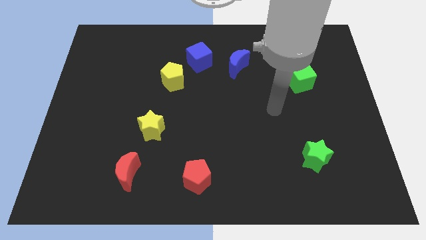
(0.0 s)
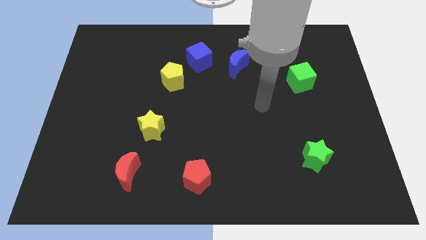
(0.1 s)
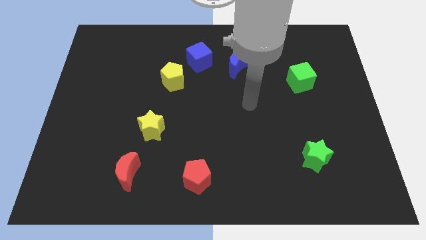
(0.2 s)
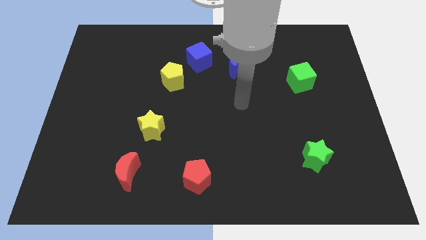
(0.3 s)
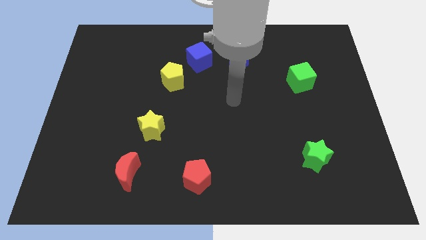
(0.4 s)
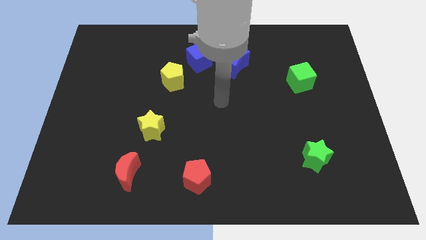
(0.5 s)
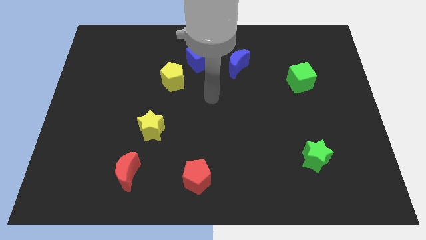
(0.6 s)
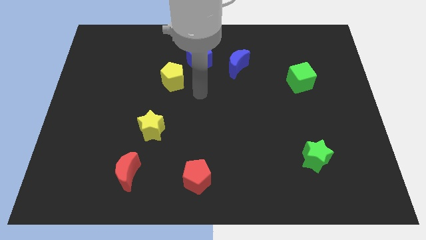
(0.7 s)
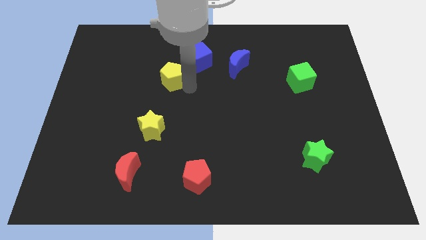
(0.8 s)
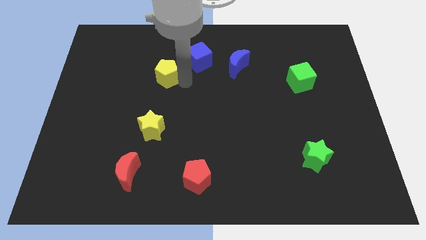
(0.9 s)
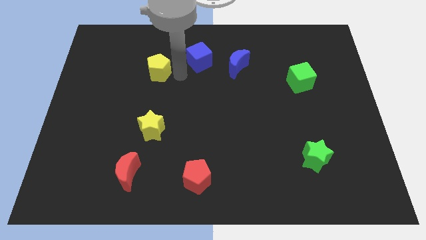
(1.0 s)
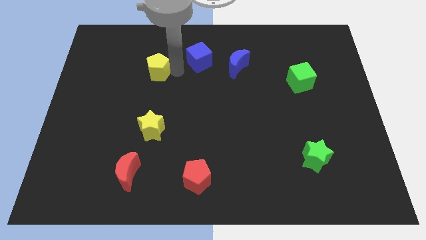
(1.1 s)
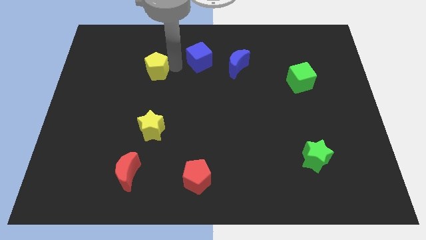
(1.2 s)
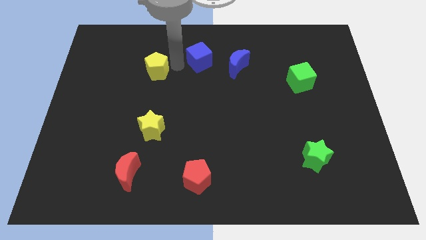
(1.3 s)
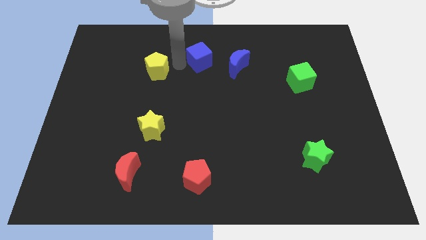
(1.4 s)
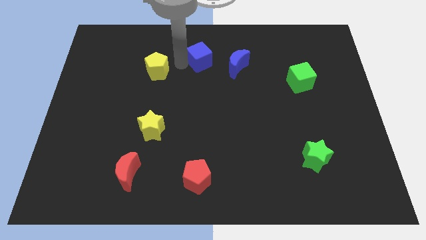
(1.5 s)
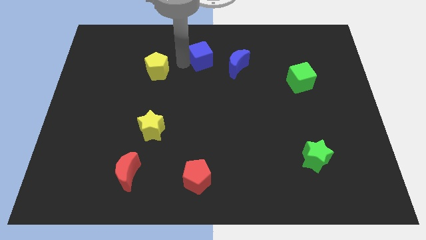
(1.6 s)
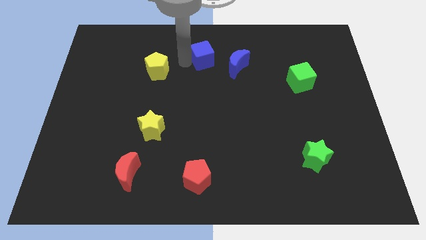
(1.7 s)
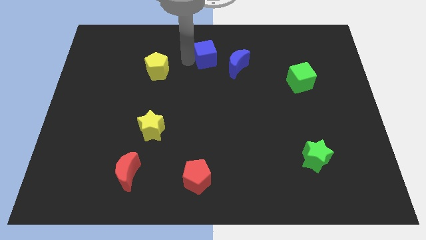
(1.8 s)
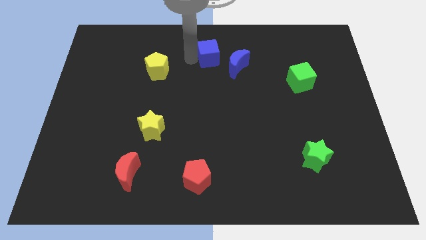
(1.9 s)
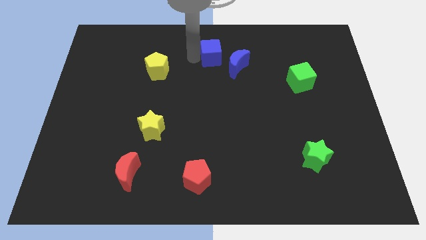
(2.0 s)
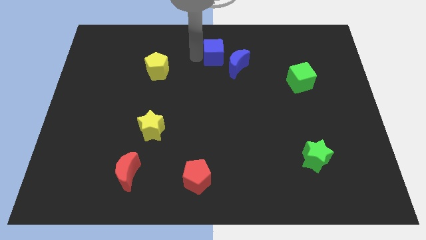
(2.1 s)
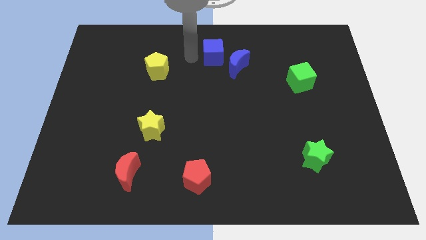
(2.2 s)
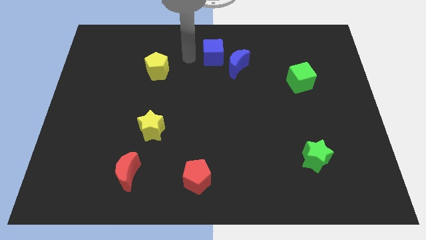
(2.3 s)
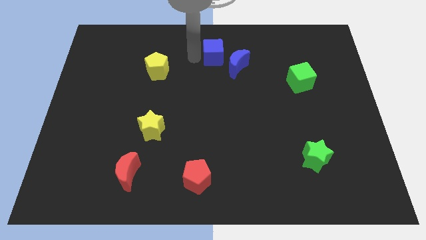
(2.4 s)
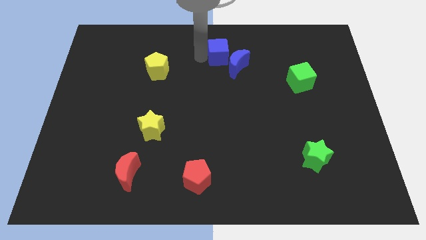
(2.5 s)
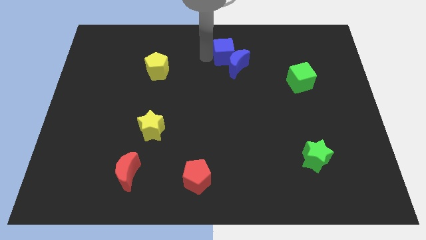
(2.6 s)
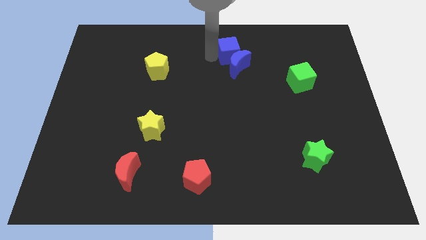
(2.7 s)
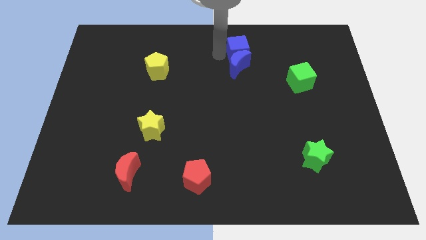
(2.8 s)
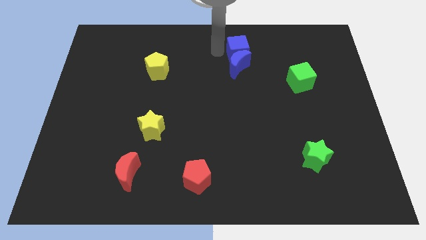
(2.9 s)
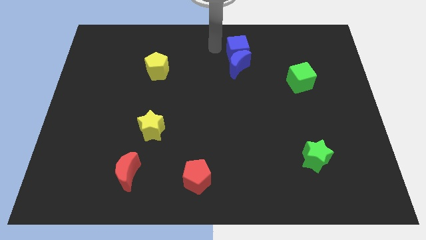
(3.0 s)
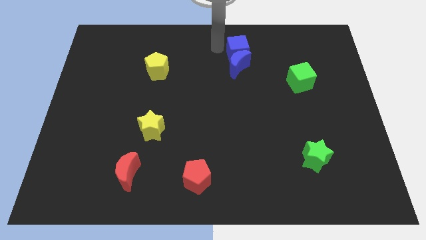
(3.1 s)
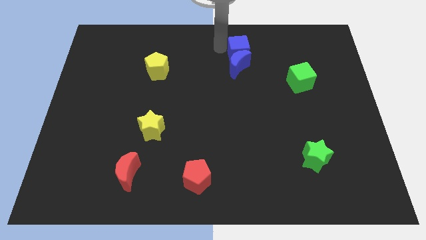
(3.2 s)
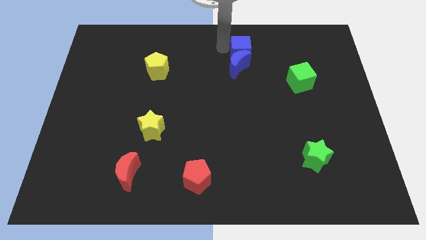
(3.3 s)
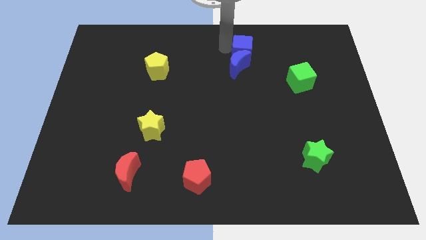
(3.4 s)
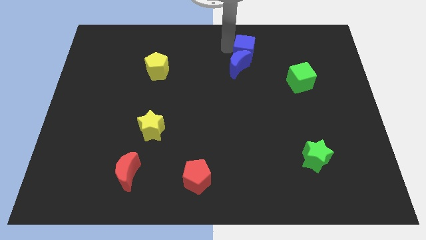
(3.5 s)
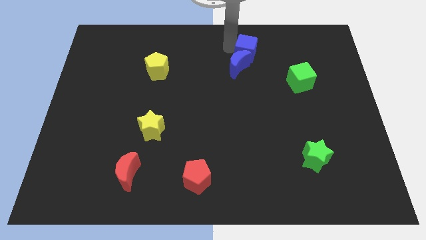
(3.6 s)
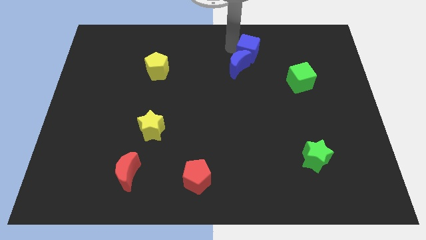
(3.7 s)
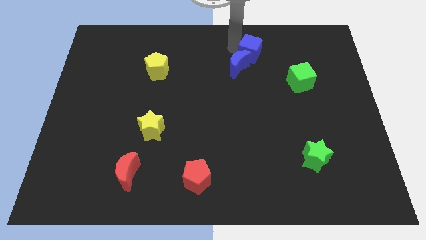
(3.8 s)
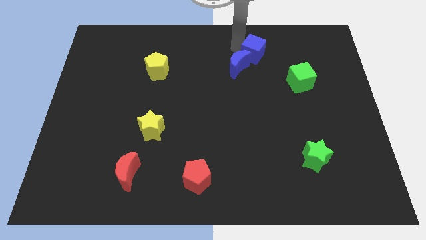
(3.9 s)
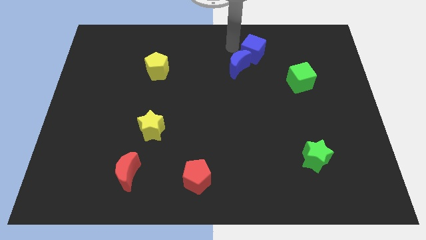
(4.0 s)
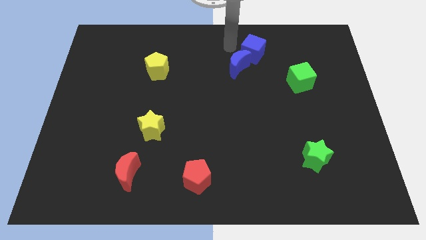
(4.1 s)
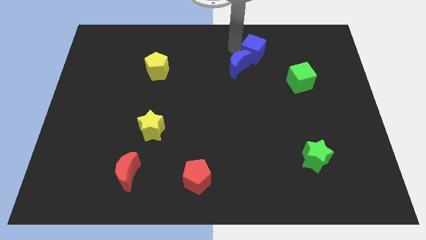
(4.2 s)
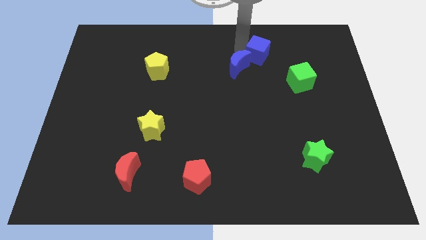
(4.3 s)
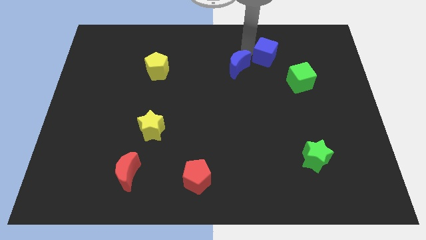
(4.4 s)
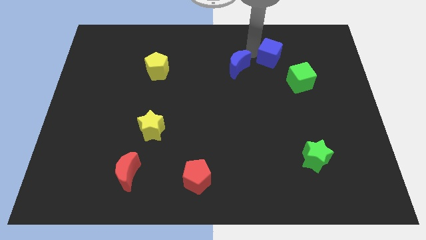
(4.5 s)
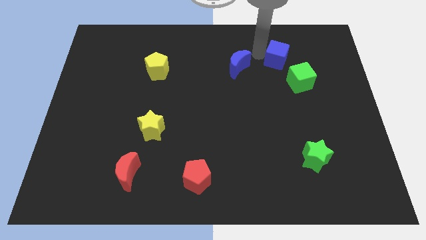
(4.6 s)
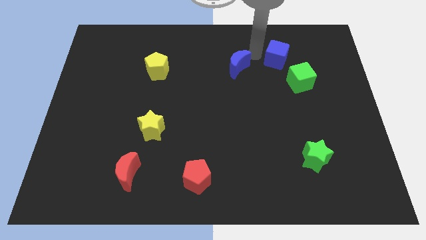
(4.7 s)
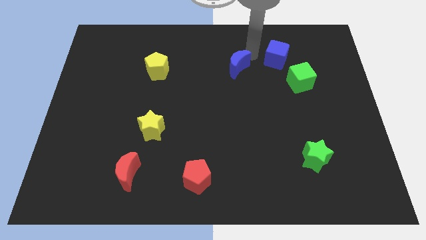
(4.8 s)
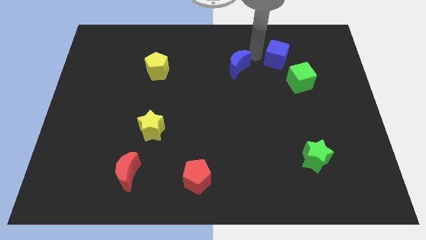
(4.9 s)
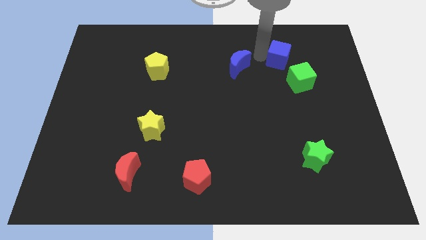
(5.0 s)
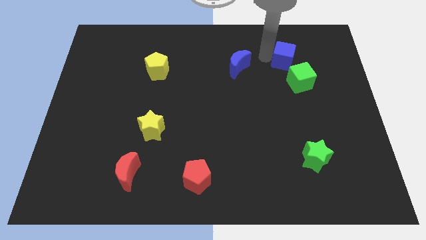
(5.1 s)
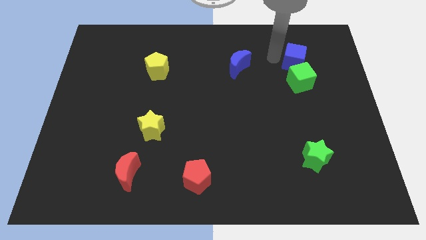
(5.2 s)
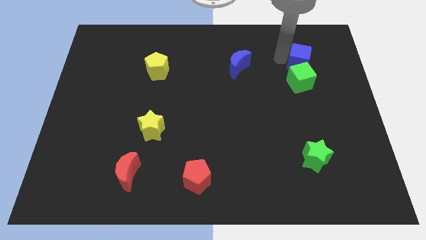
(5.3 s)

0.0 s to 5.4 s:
push the blue cube to the top right of the green cube

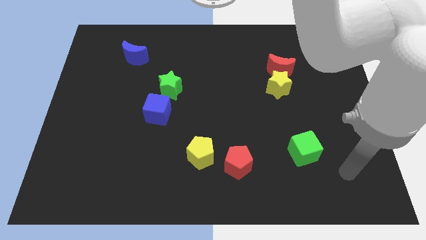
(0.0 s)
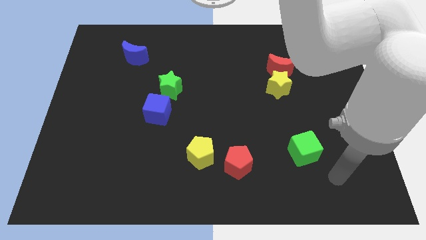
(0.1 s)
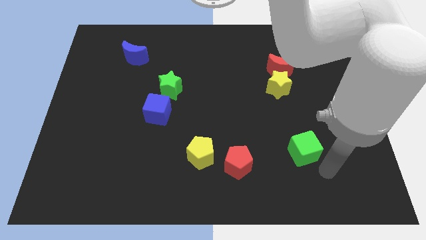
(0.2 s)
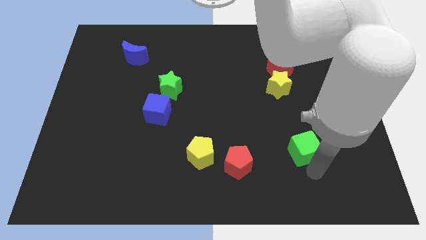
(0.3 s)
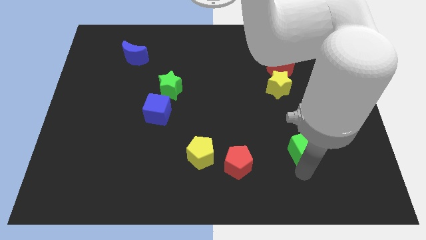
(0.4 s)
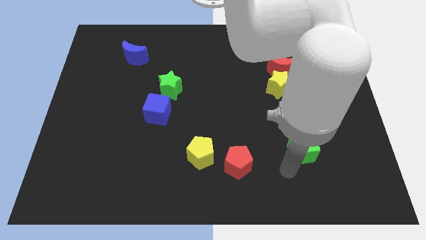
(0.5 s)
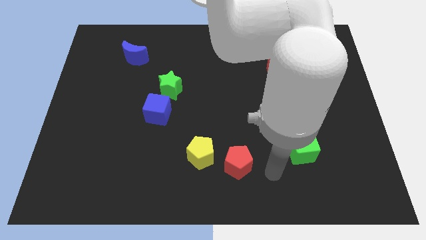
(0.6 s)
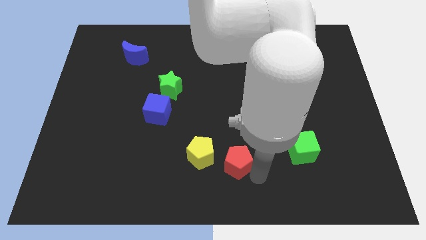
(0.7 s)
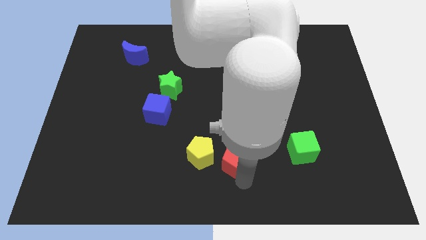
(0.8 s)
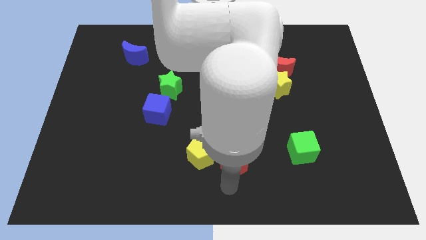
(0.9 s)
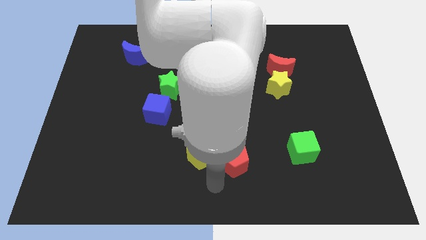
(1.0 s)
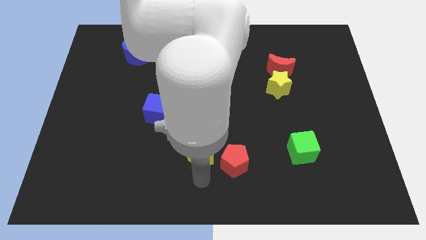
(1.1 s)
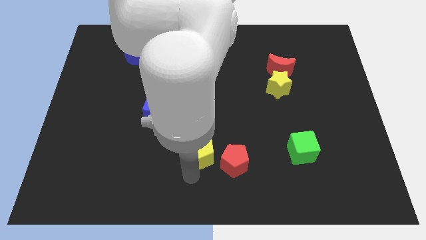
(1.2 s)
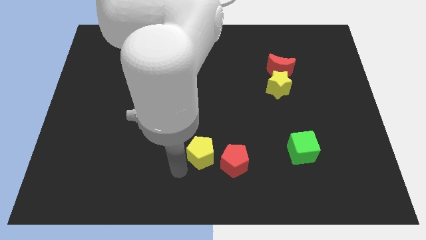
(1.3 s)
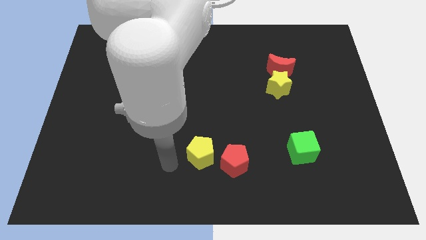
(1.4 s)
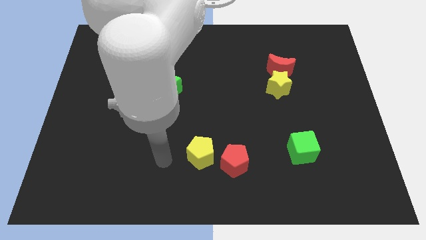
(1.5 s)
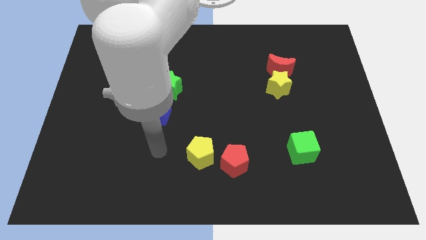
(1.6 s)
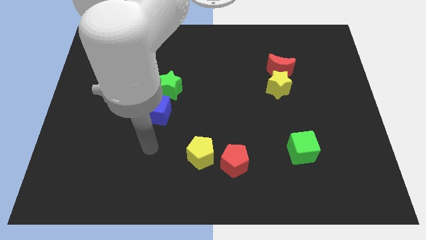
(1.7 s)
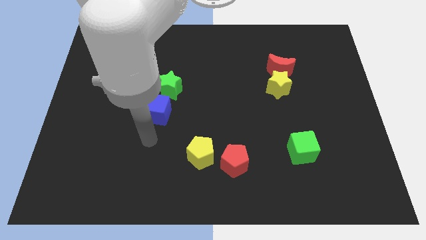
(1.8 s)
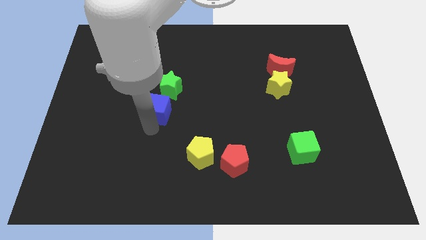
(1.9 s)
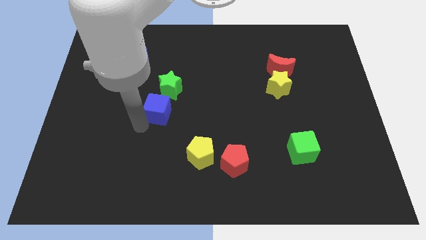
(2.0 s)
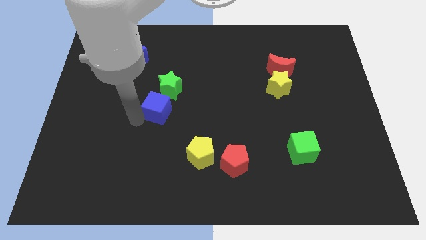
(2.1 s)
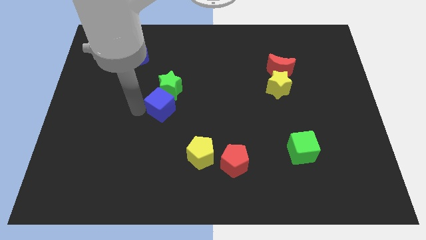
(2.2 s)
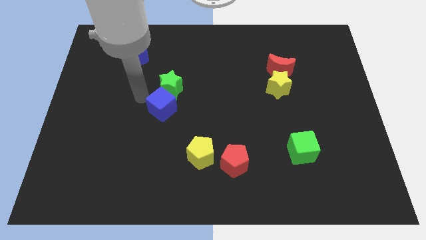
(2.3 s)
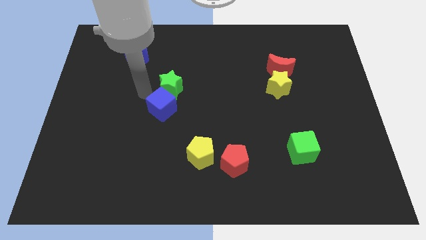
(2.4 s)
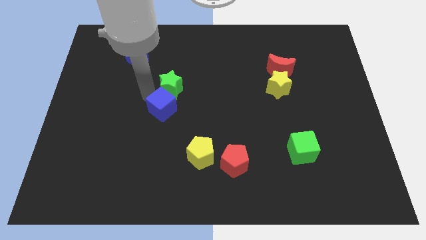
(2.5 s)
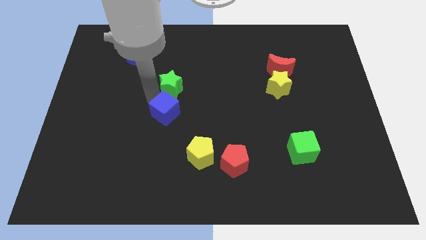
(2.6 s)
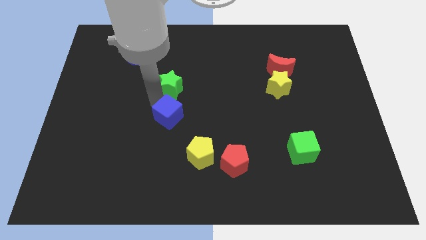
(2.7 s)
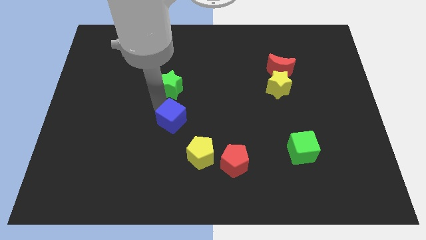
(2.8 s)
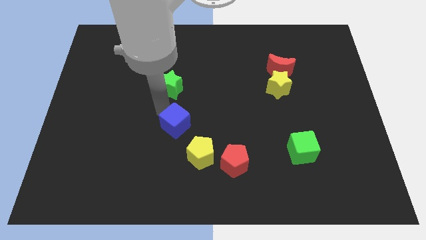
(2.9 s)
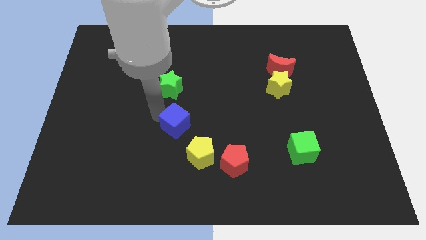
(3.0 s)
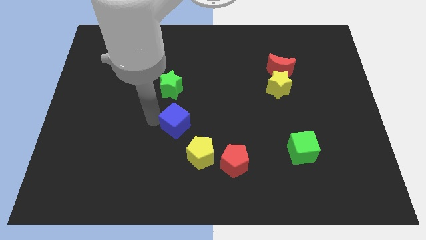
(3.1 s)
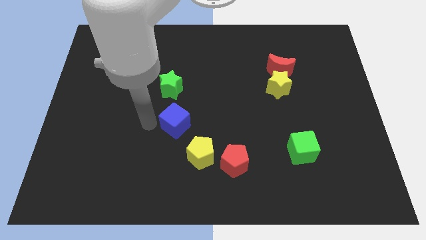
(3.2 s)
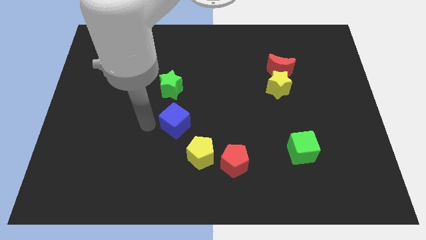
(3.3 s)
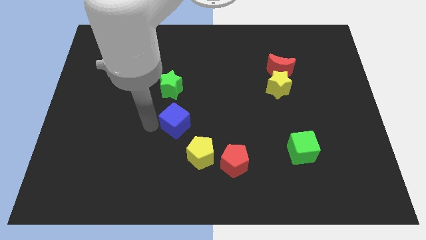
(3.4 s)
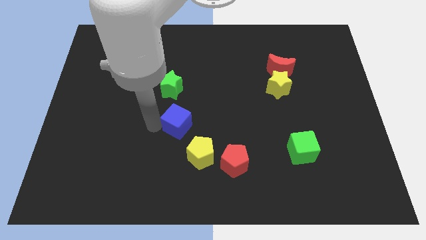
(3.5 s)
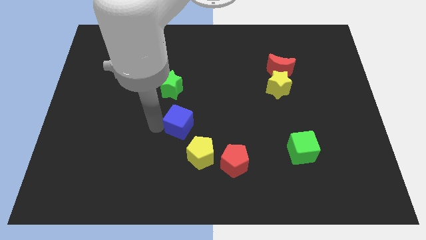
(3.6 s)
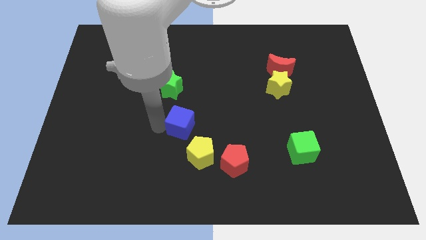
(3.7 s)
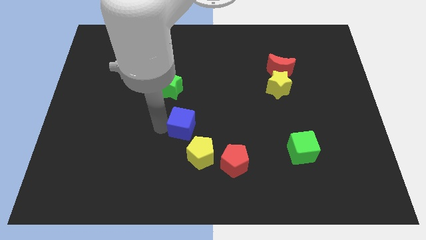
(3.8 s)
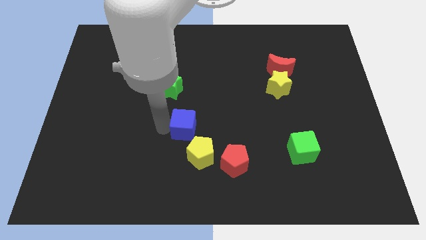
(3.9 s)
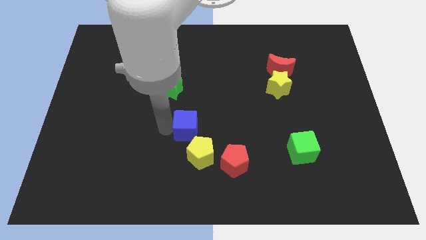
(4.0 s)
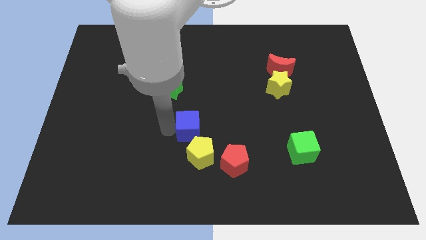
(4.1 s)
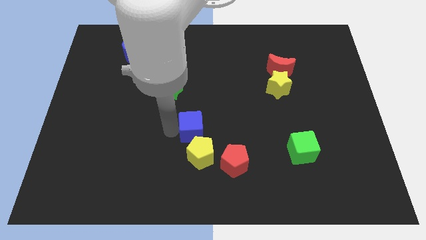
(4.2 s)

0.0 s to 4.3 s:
put the blue cube to the top left of the red pentagon
